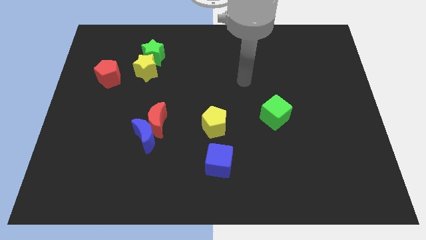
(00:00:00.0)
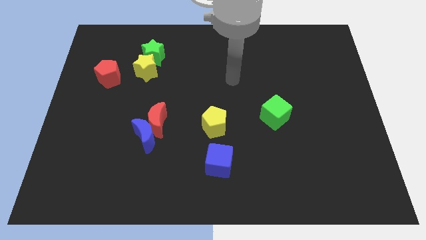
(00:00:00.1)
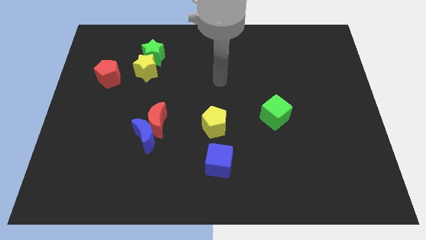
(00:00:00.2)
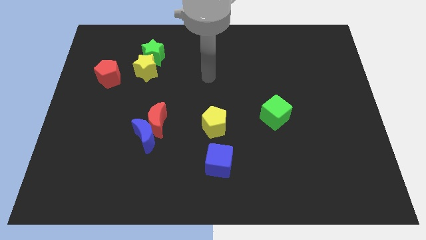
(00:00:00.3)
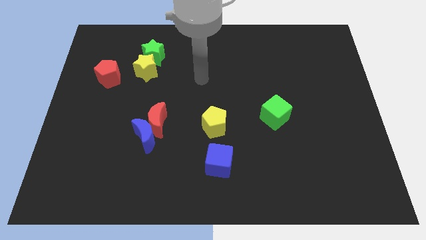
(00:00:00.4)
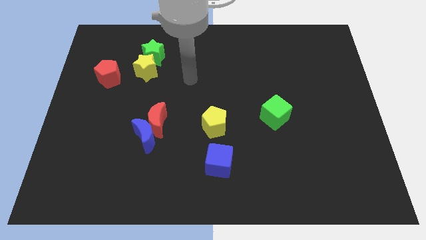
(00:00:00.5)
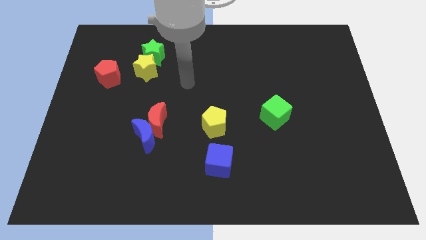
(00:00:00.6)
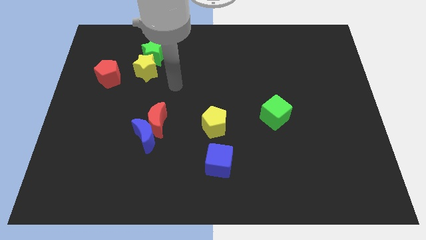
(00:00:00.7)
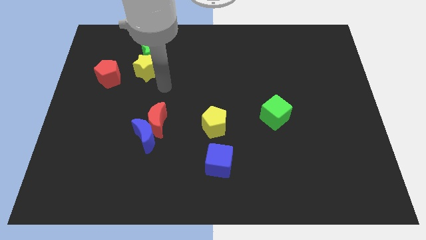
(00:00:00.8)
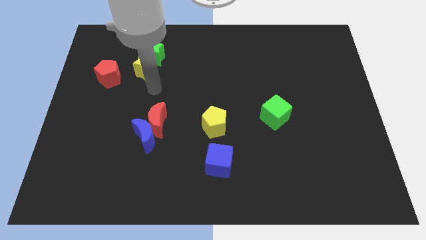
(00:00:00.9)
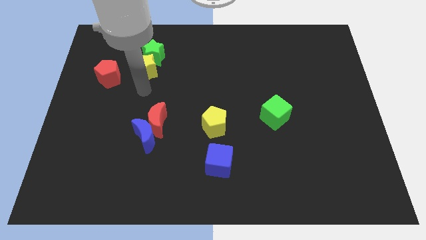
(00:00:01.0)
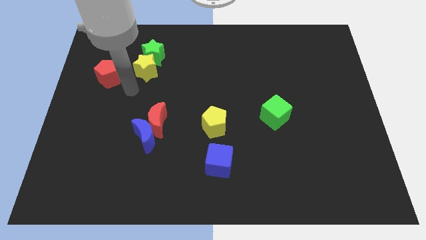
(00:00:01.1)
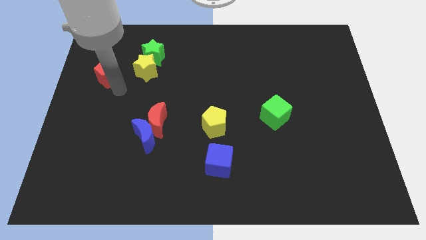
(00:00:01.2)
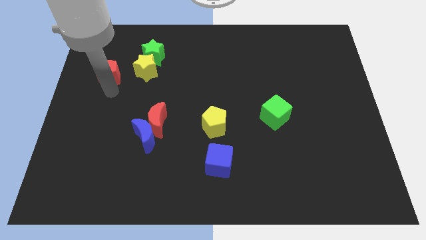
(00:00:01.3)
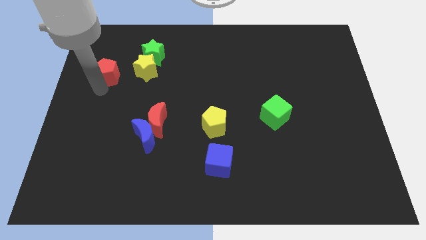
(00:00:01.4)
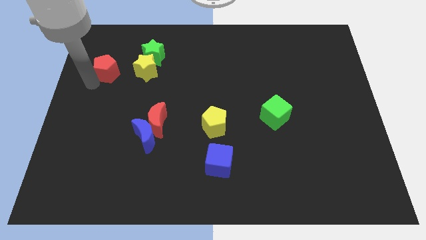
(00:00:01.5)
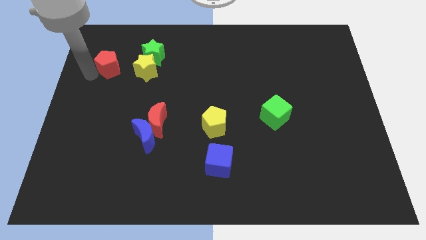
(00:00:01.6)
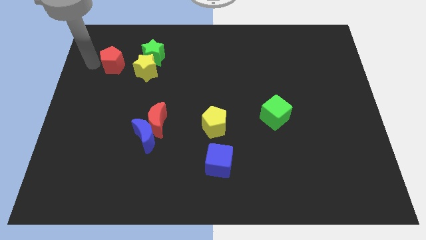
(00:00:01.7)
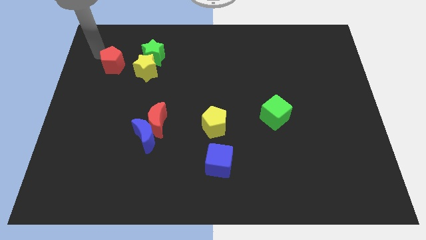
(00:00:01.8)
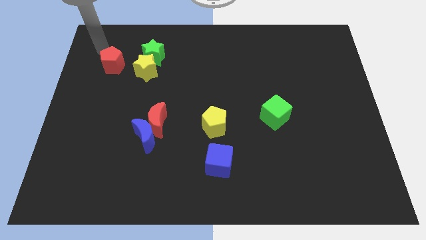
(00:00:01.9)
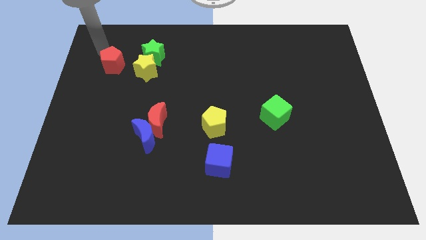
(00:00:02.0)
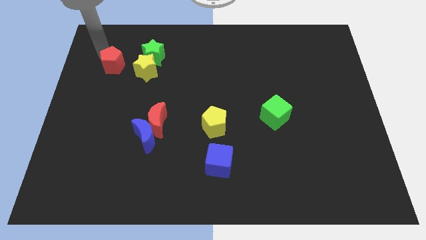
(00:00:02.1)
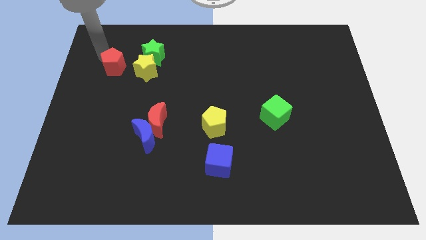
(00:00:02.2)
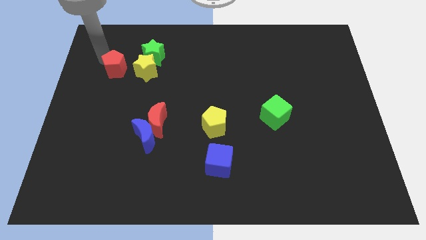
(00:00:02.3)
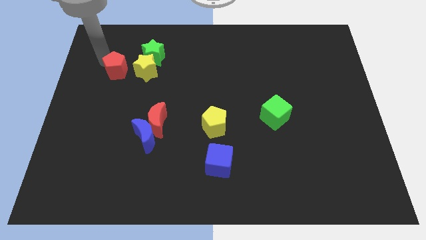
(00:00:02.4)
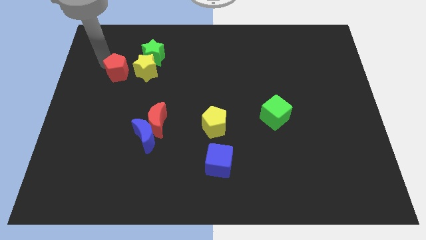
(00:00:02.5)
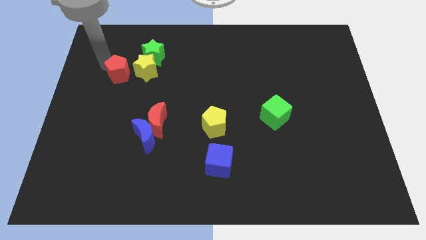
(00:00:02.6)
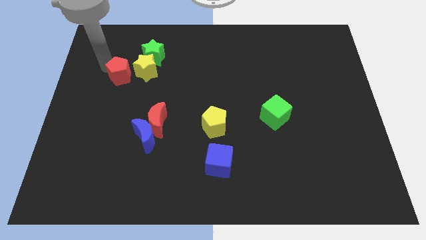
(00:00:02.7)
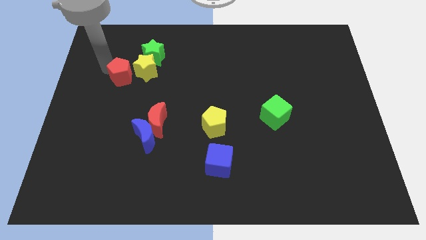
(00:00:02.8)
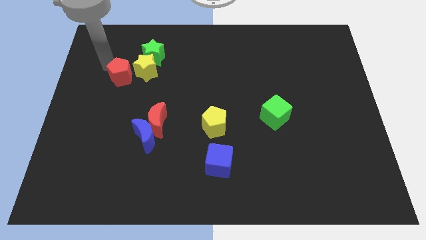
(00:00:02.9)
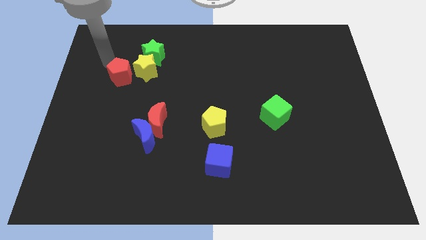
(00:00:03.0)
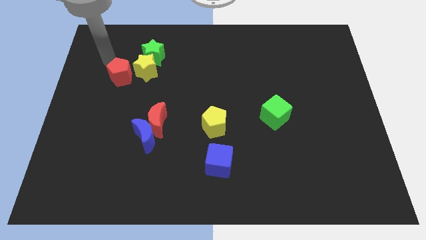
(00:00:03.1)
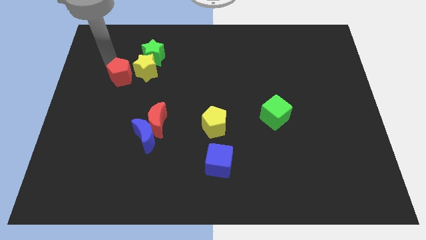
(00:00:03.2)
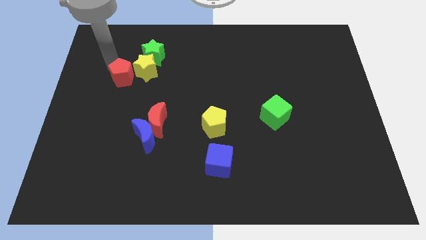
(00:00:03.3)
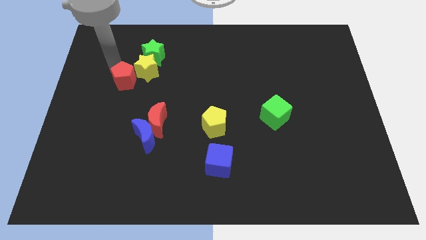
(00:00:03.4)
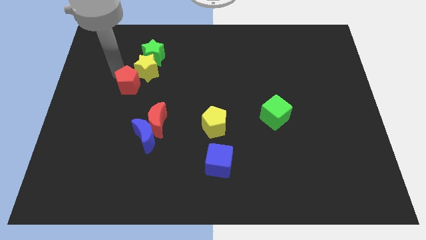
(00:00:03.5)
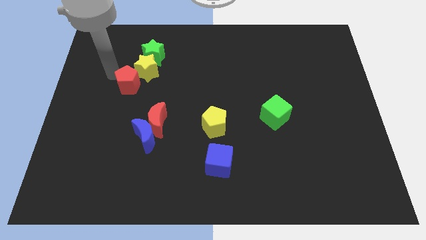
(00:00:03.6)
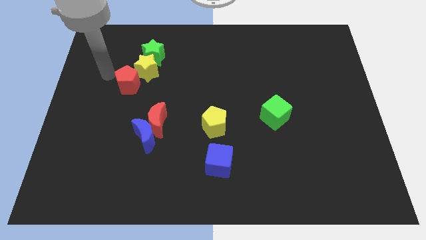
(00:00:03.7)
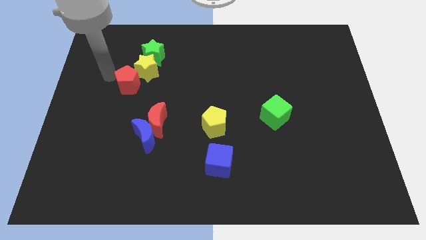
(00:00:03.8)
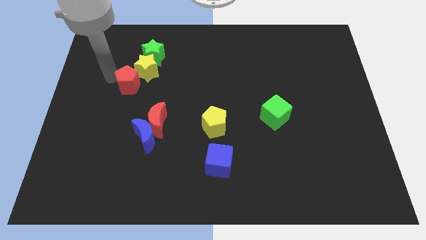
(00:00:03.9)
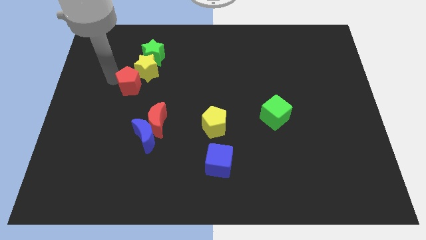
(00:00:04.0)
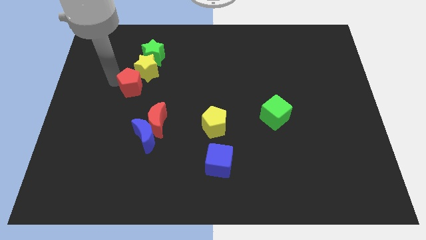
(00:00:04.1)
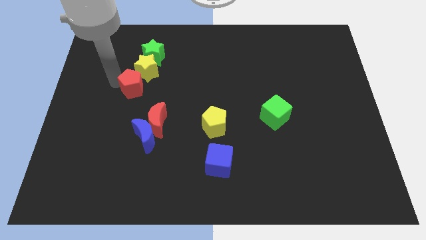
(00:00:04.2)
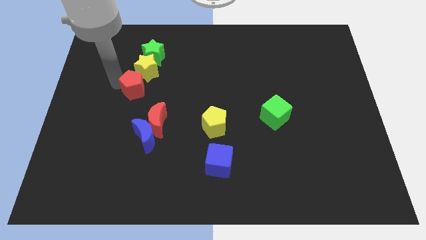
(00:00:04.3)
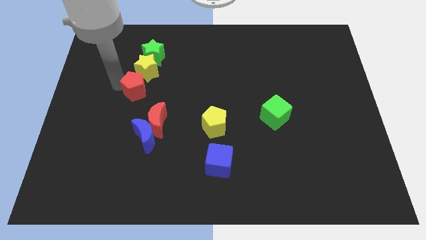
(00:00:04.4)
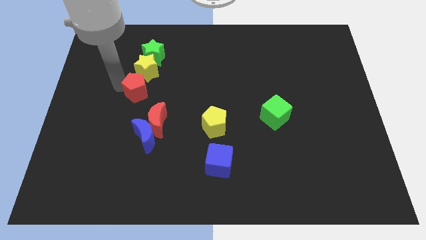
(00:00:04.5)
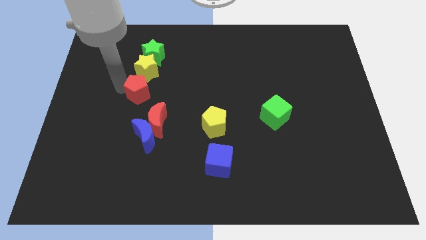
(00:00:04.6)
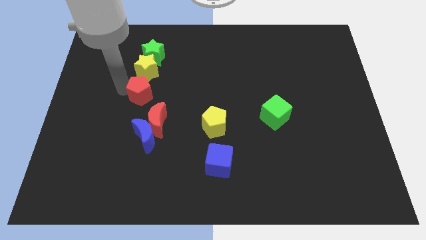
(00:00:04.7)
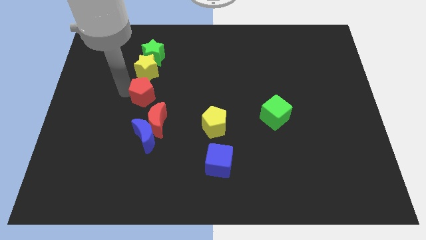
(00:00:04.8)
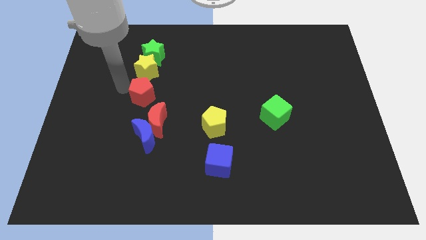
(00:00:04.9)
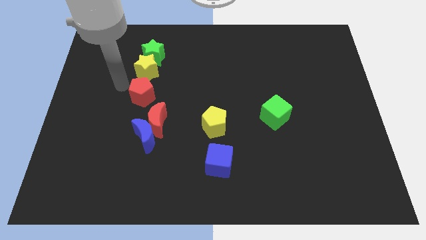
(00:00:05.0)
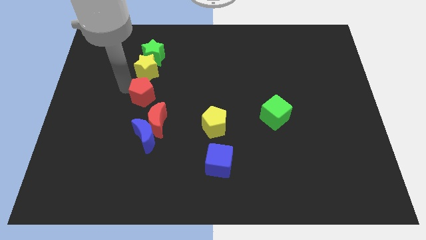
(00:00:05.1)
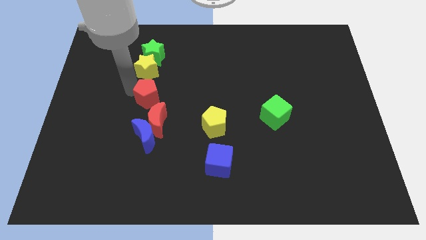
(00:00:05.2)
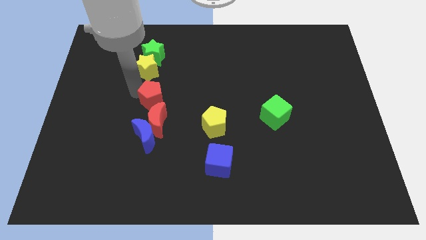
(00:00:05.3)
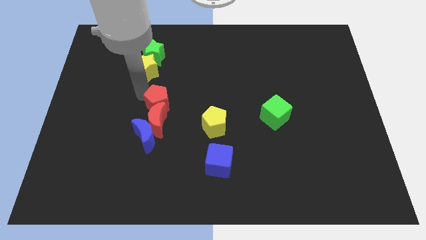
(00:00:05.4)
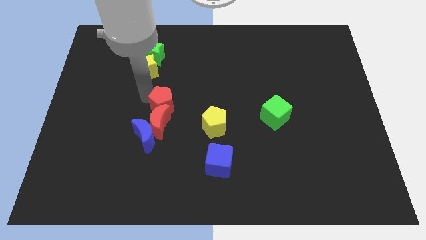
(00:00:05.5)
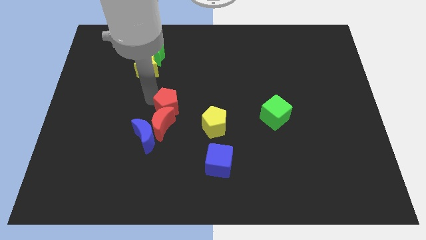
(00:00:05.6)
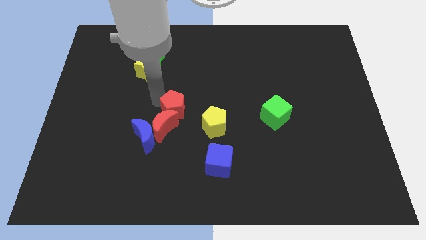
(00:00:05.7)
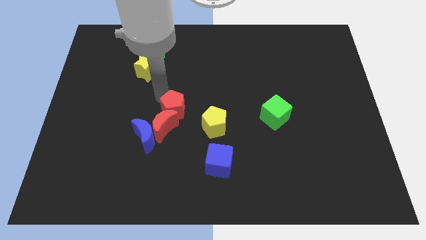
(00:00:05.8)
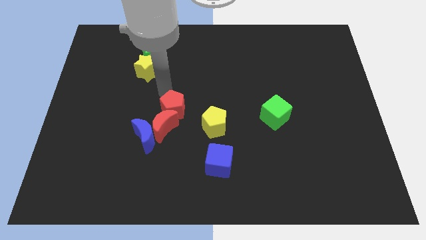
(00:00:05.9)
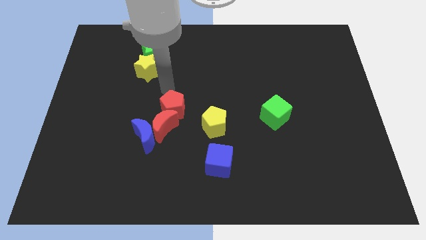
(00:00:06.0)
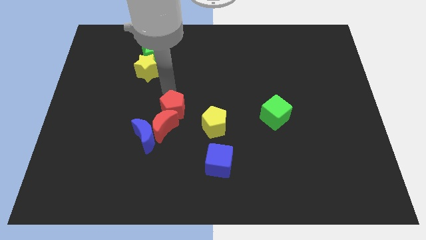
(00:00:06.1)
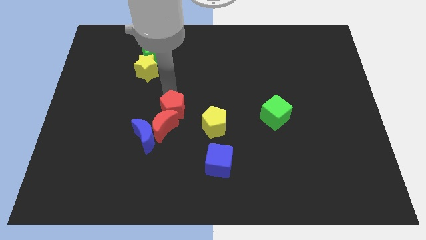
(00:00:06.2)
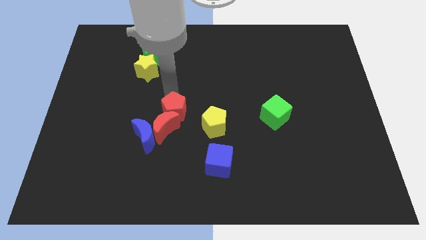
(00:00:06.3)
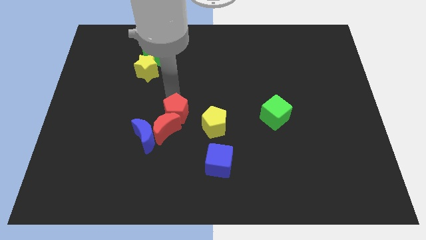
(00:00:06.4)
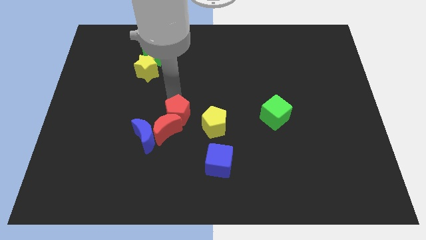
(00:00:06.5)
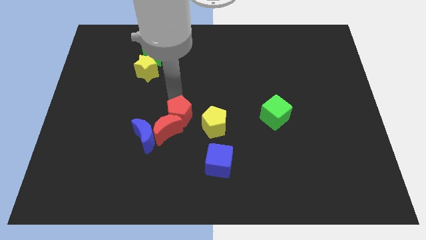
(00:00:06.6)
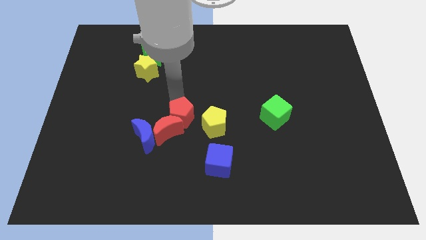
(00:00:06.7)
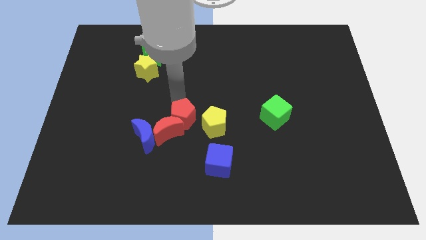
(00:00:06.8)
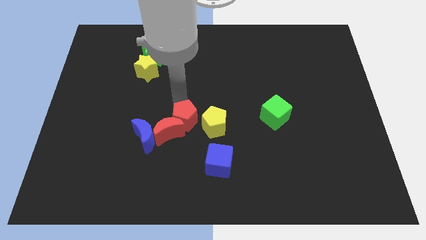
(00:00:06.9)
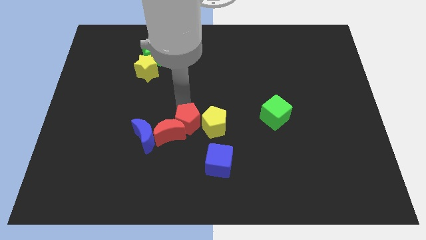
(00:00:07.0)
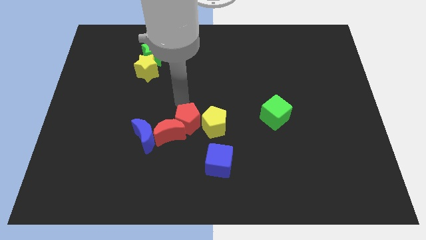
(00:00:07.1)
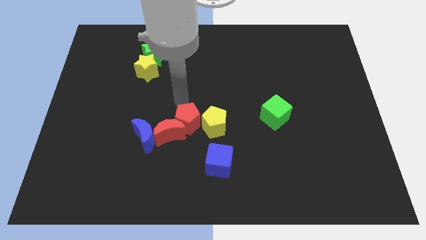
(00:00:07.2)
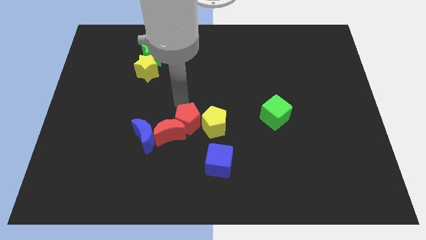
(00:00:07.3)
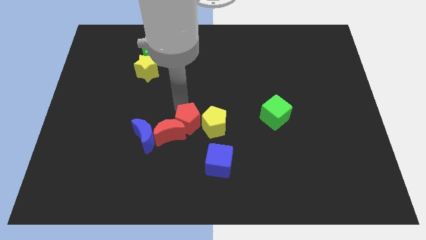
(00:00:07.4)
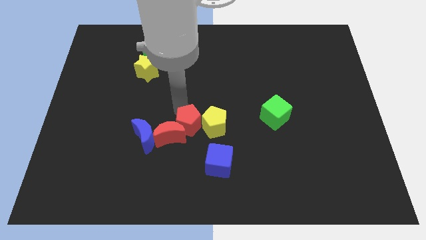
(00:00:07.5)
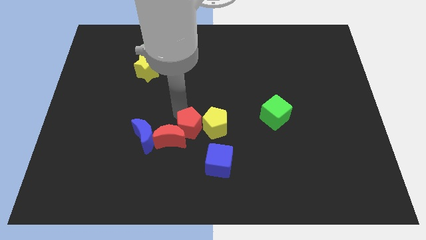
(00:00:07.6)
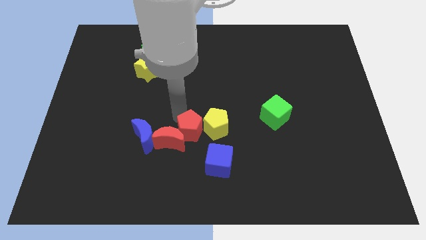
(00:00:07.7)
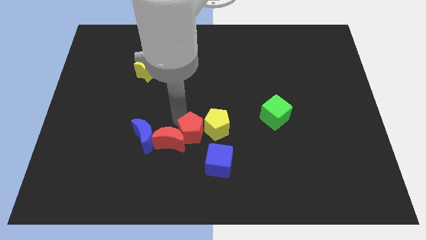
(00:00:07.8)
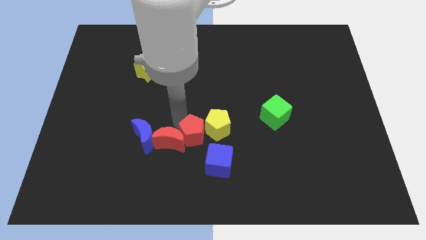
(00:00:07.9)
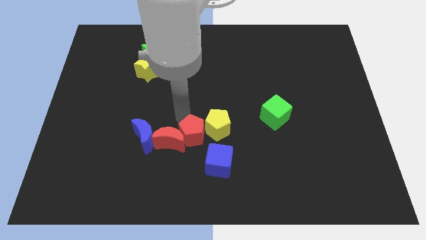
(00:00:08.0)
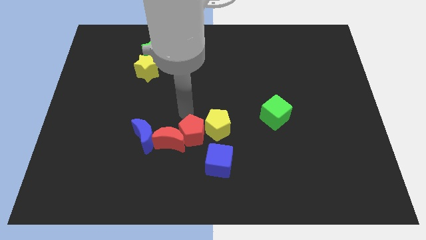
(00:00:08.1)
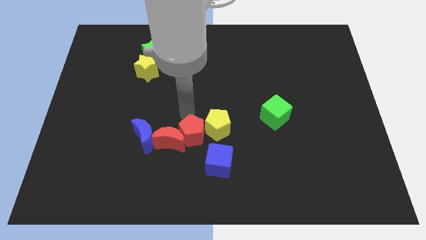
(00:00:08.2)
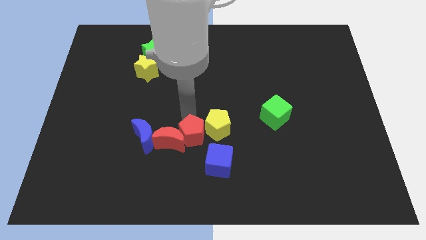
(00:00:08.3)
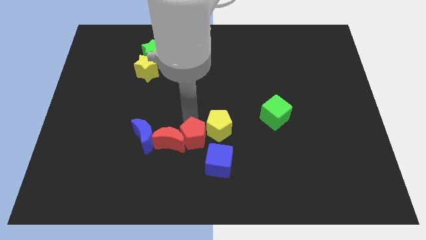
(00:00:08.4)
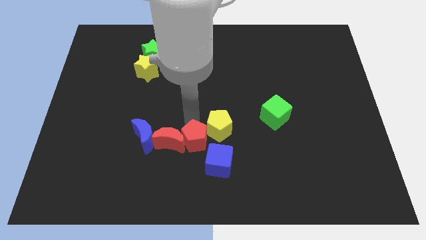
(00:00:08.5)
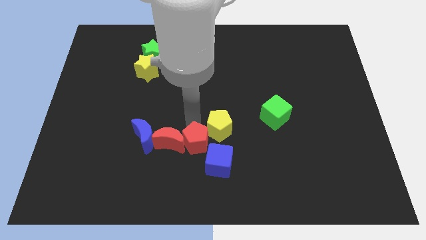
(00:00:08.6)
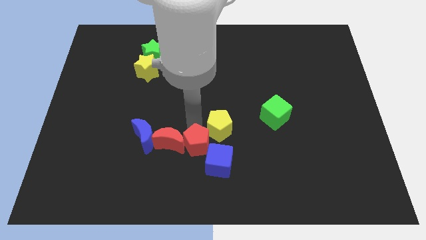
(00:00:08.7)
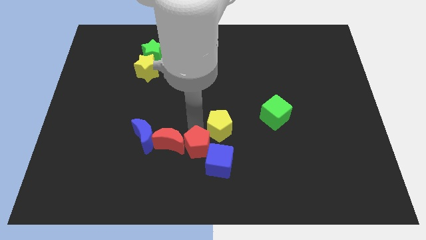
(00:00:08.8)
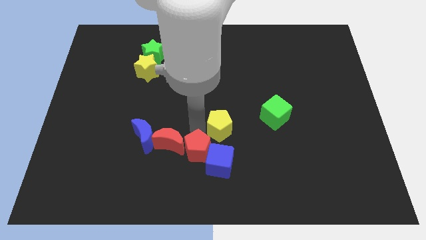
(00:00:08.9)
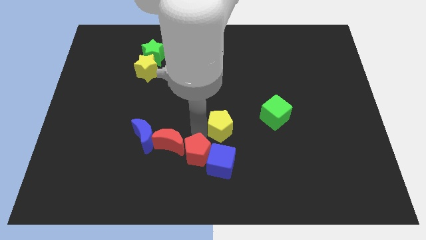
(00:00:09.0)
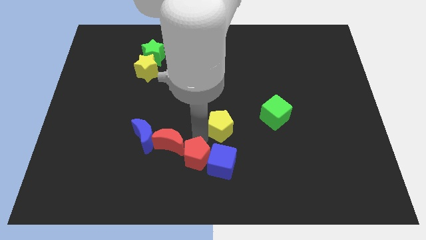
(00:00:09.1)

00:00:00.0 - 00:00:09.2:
slide the red pentagon to the bottom side
